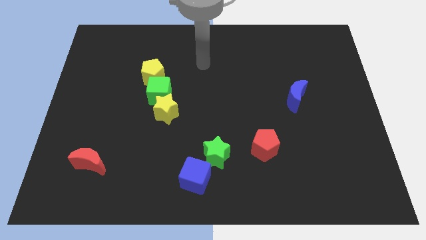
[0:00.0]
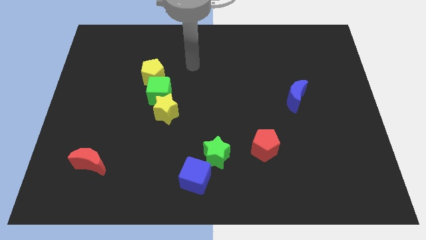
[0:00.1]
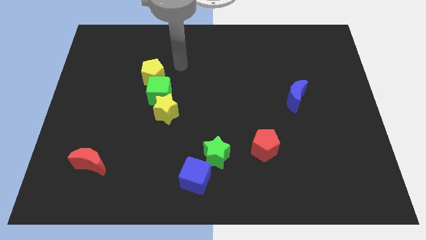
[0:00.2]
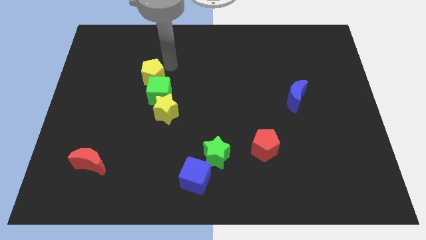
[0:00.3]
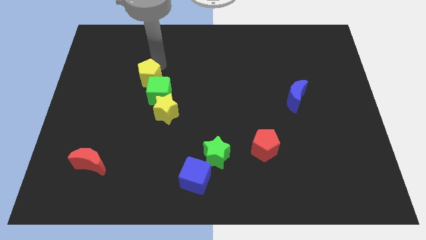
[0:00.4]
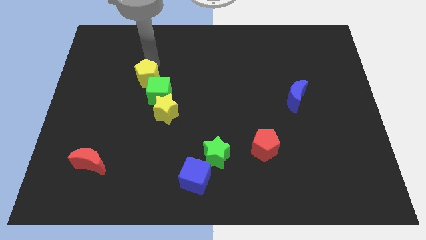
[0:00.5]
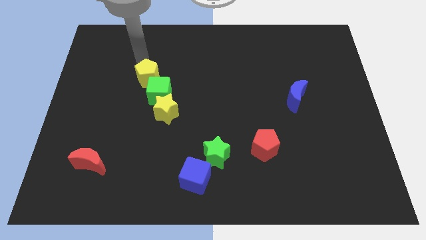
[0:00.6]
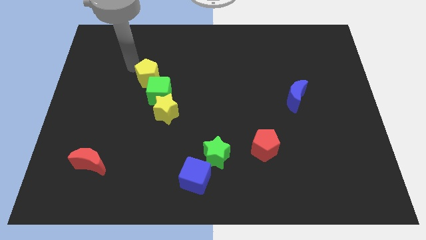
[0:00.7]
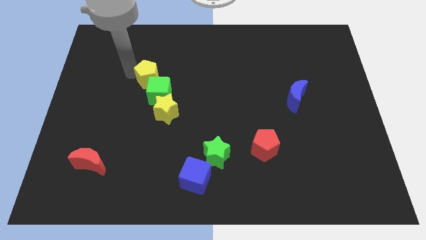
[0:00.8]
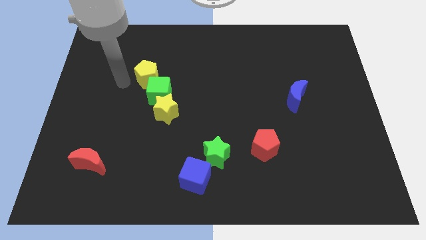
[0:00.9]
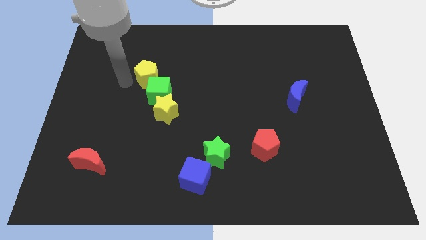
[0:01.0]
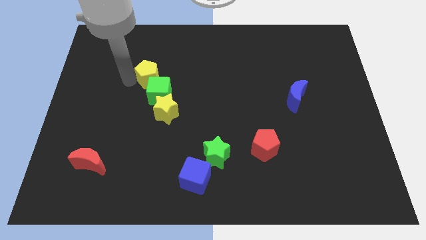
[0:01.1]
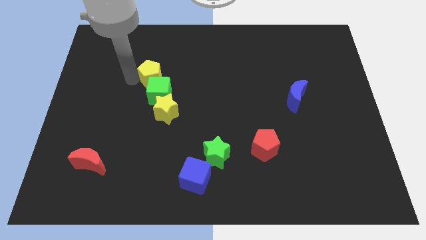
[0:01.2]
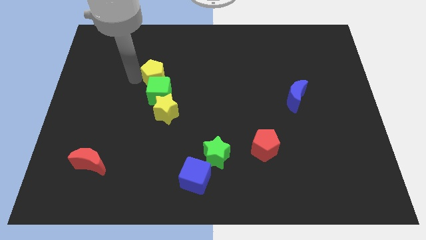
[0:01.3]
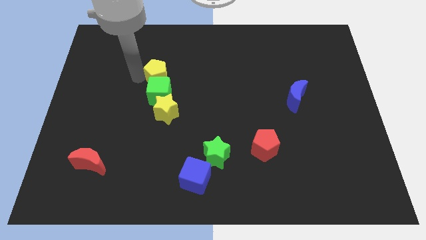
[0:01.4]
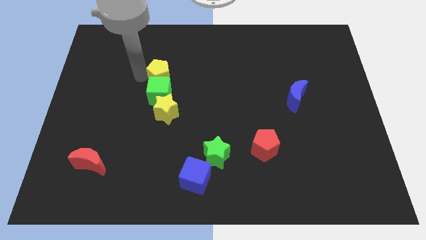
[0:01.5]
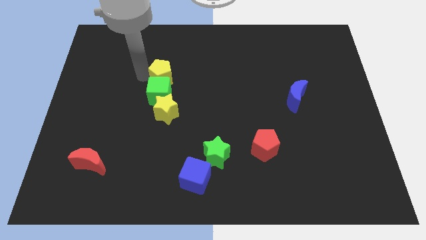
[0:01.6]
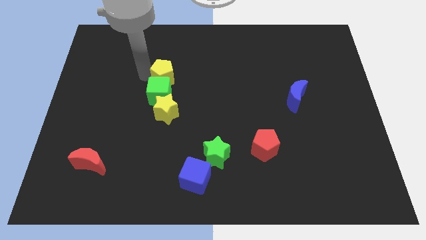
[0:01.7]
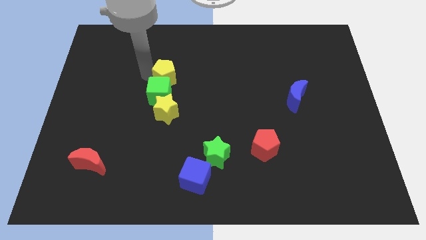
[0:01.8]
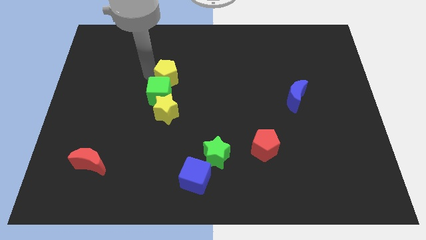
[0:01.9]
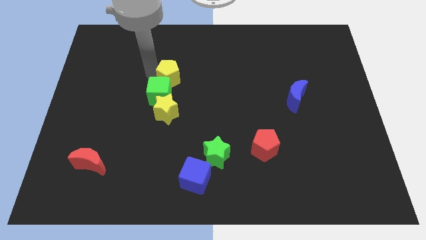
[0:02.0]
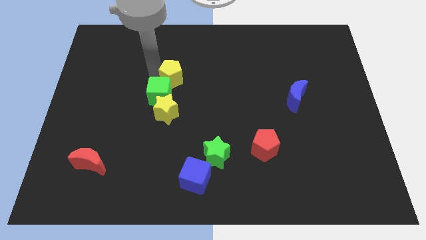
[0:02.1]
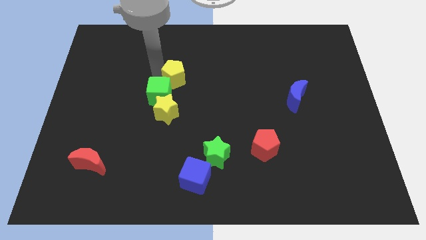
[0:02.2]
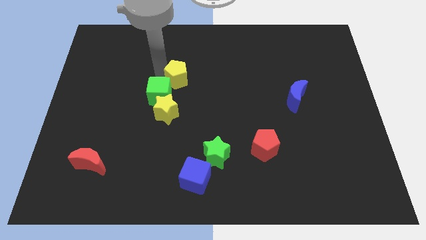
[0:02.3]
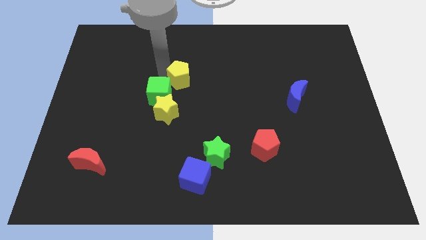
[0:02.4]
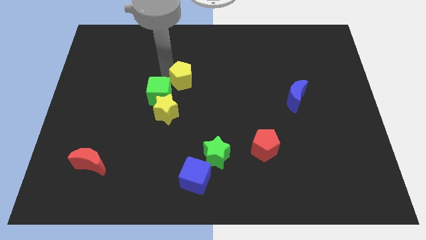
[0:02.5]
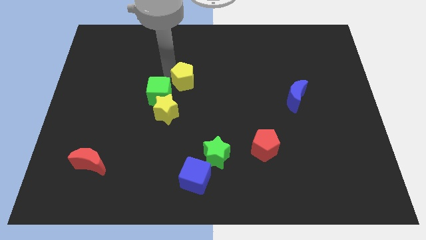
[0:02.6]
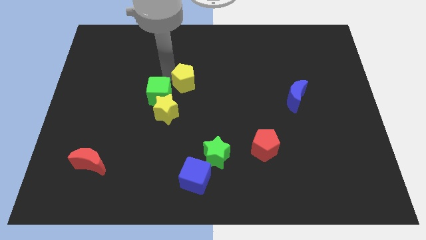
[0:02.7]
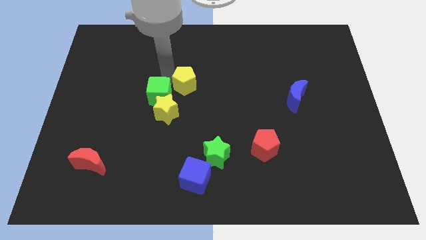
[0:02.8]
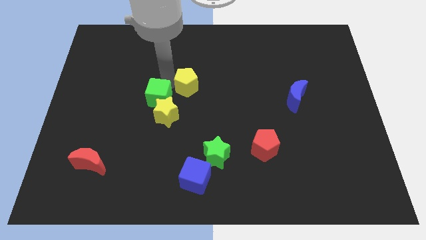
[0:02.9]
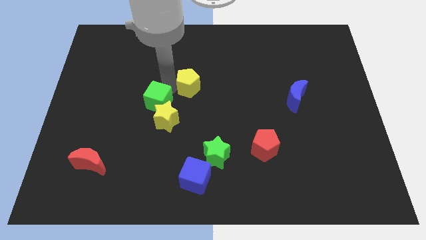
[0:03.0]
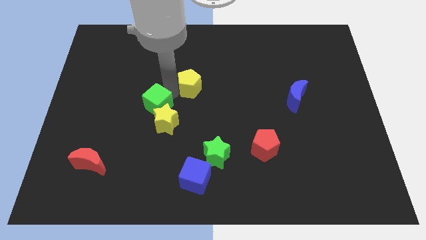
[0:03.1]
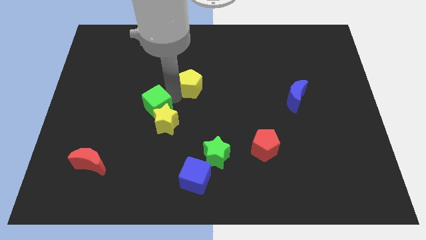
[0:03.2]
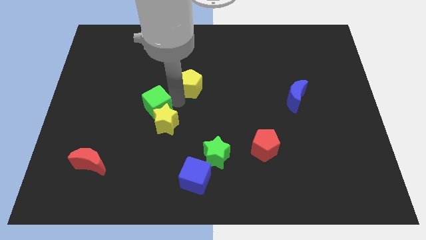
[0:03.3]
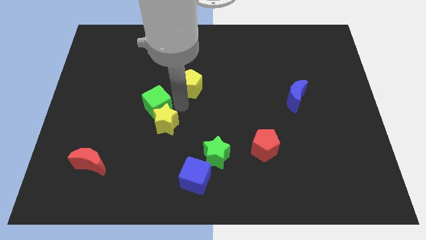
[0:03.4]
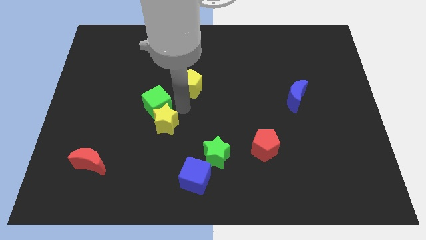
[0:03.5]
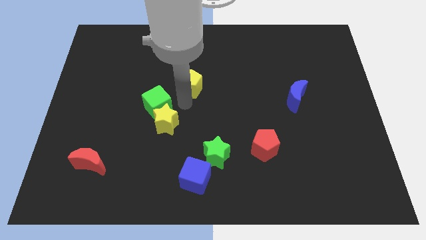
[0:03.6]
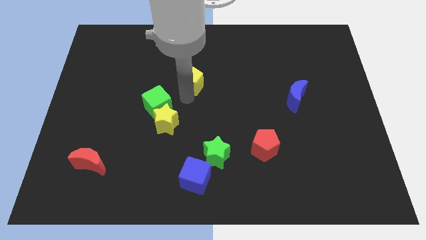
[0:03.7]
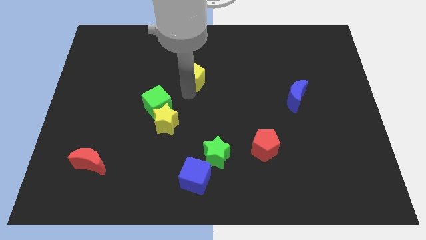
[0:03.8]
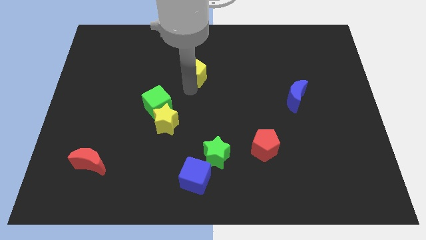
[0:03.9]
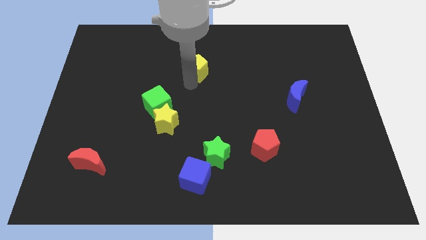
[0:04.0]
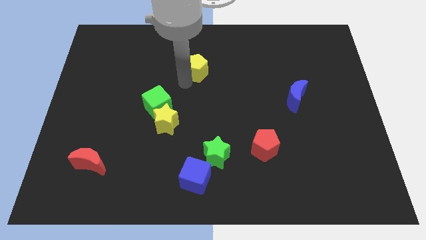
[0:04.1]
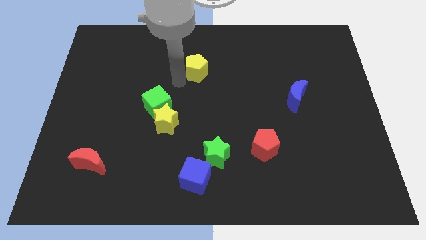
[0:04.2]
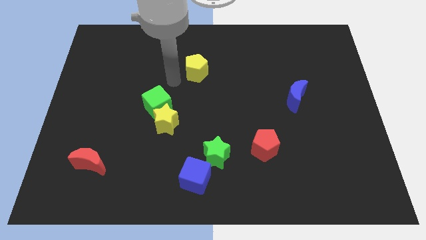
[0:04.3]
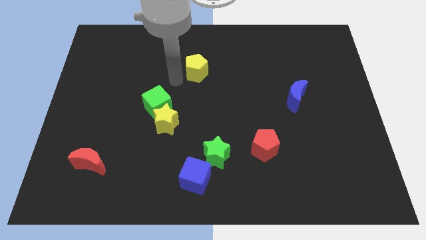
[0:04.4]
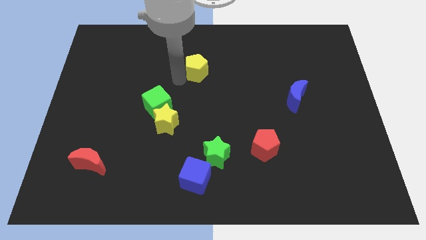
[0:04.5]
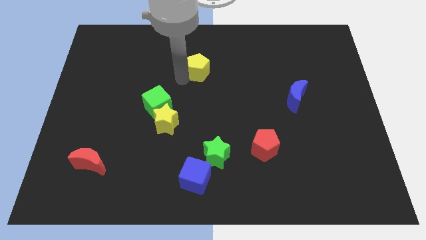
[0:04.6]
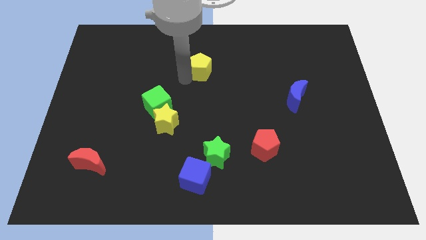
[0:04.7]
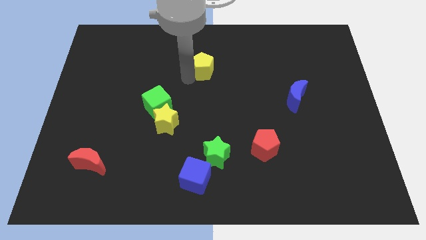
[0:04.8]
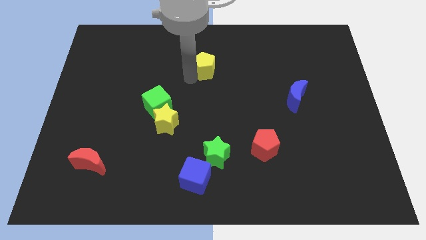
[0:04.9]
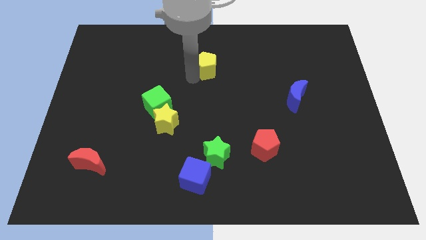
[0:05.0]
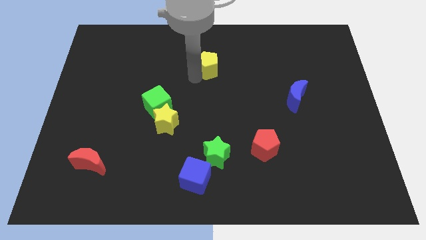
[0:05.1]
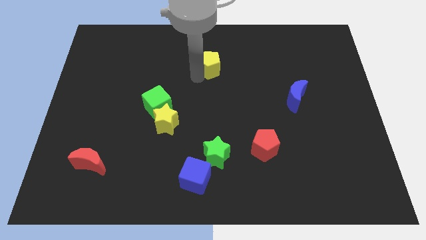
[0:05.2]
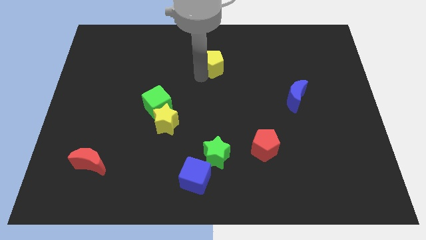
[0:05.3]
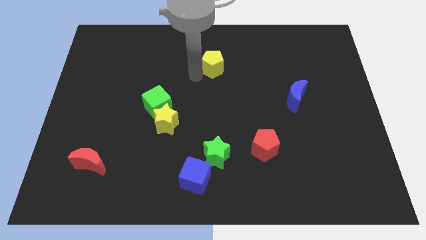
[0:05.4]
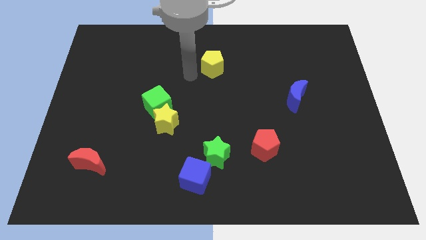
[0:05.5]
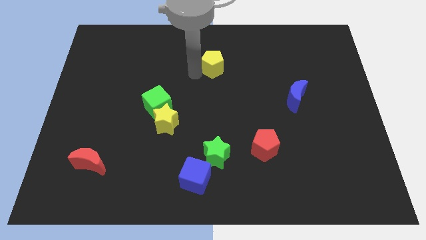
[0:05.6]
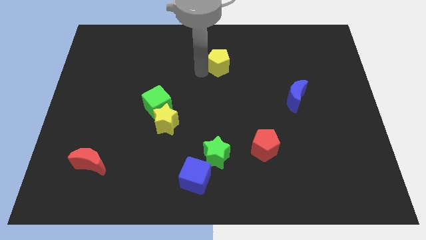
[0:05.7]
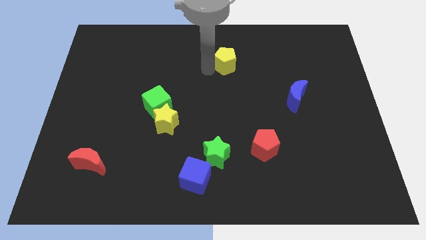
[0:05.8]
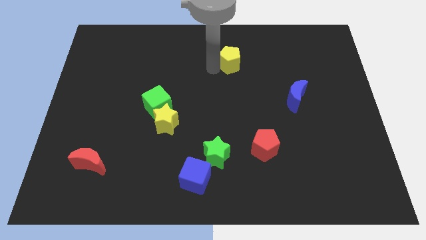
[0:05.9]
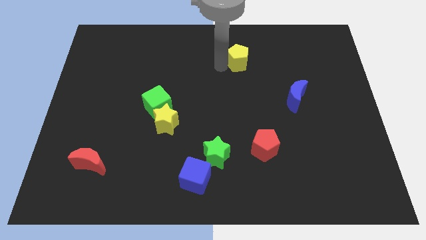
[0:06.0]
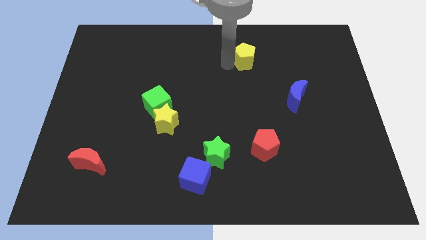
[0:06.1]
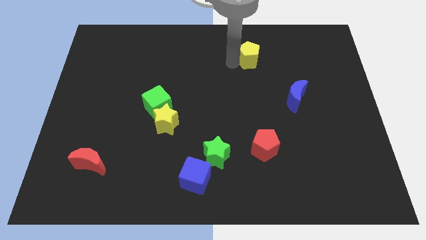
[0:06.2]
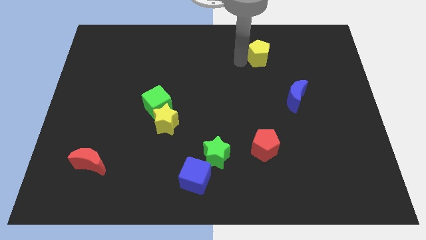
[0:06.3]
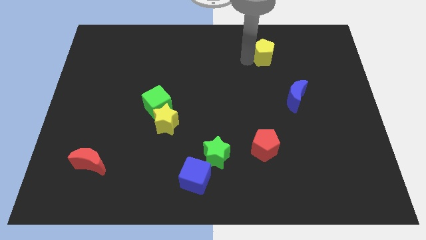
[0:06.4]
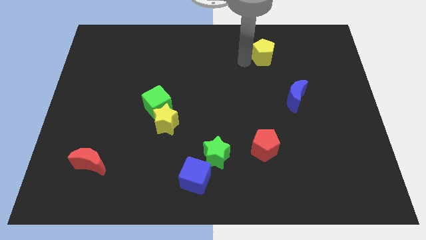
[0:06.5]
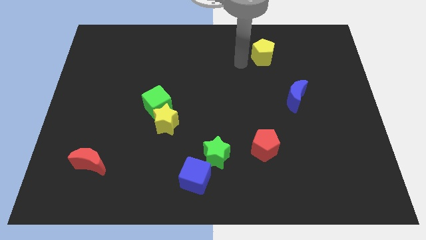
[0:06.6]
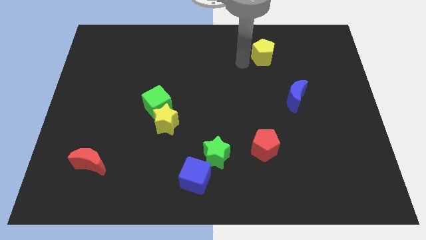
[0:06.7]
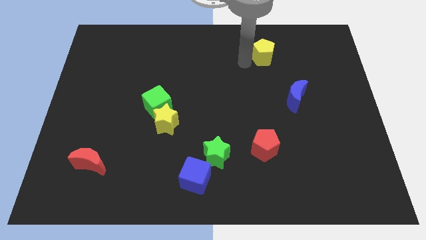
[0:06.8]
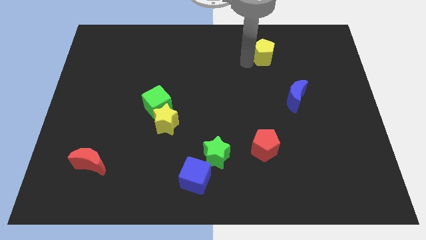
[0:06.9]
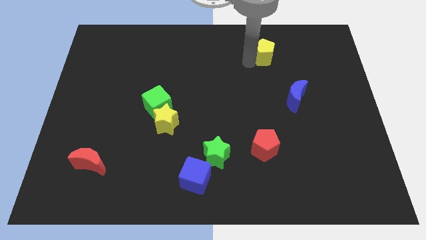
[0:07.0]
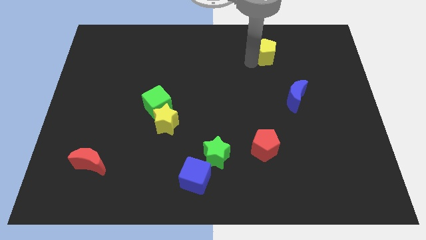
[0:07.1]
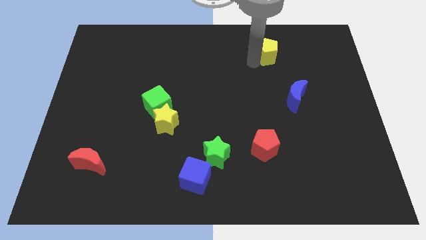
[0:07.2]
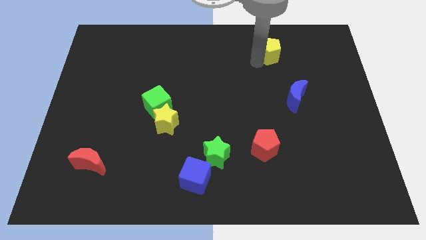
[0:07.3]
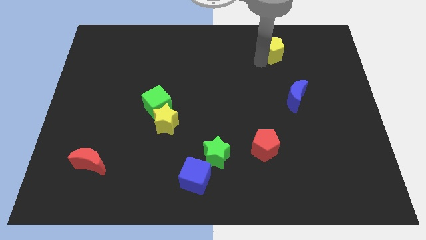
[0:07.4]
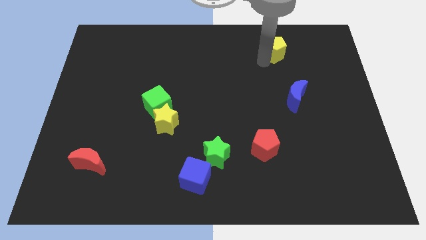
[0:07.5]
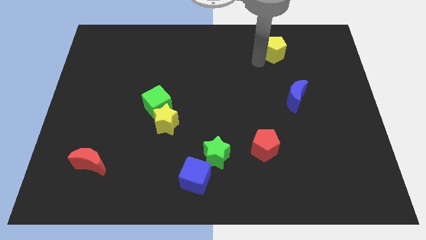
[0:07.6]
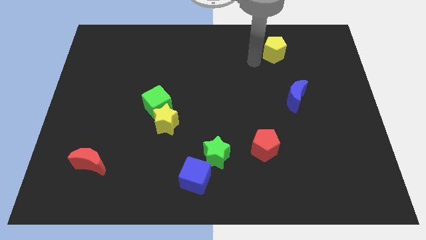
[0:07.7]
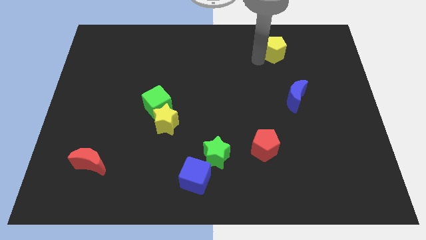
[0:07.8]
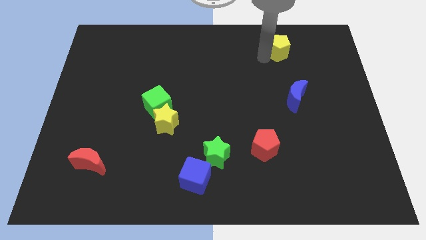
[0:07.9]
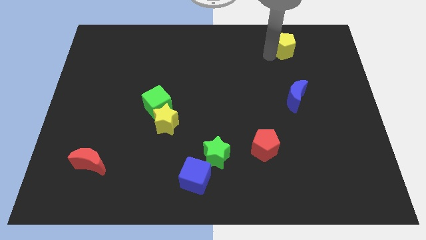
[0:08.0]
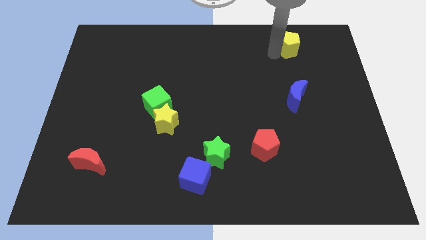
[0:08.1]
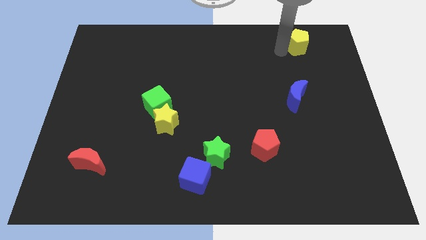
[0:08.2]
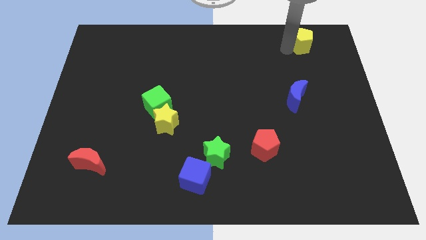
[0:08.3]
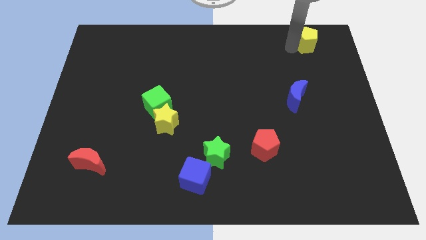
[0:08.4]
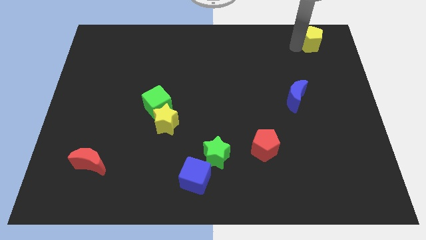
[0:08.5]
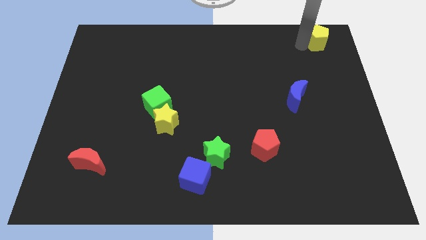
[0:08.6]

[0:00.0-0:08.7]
put the yellow pentagon to the top right corner
